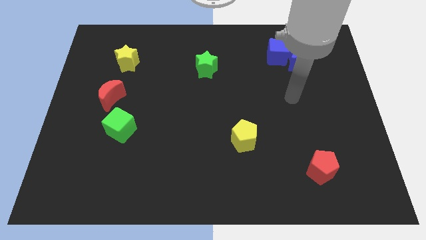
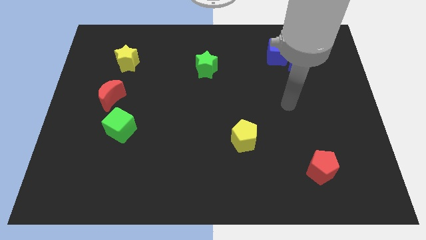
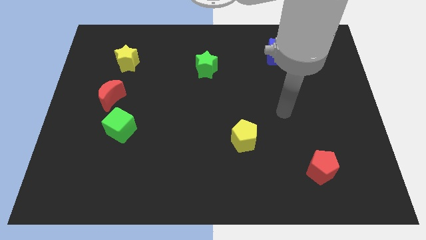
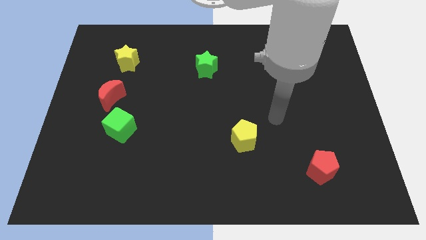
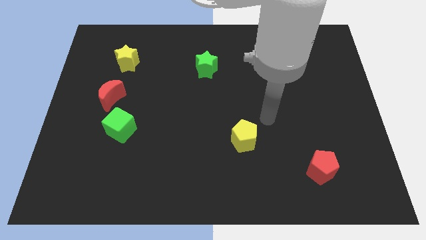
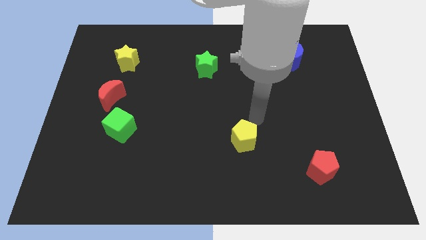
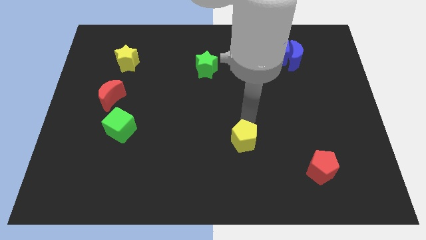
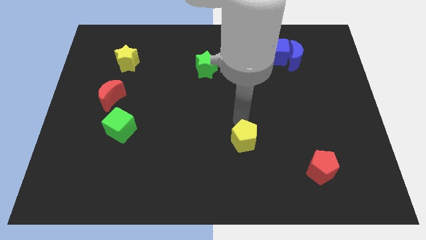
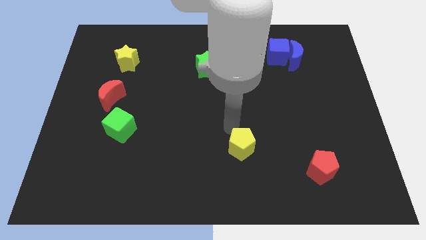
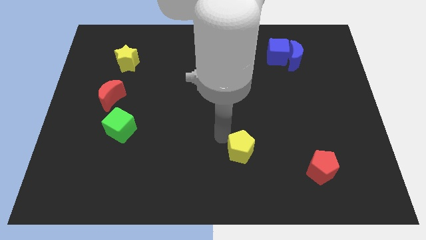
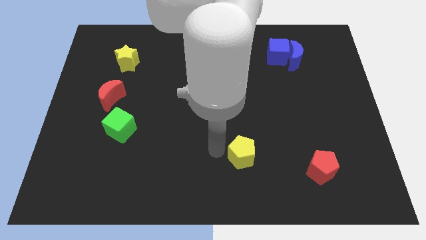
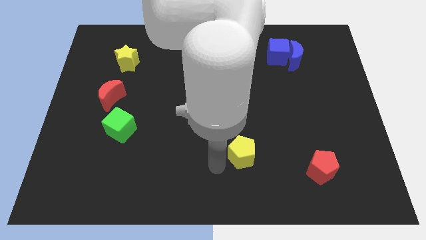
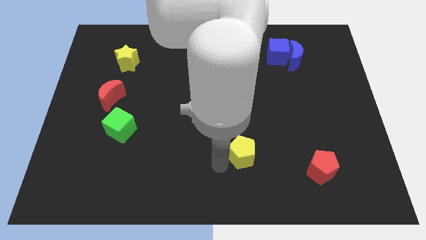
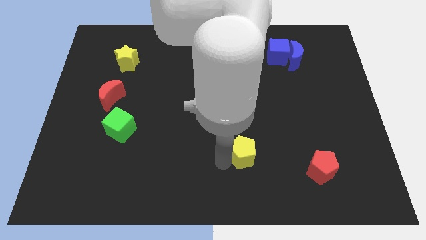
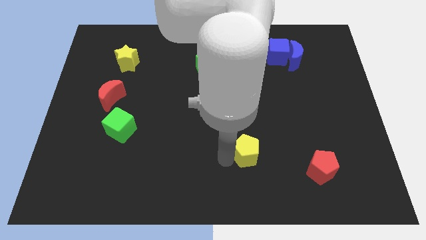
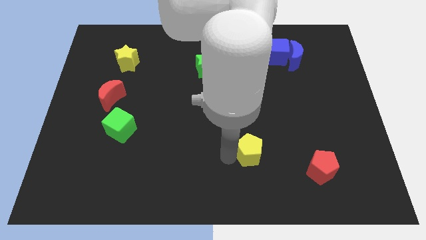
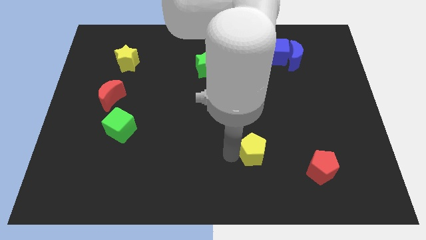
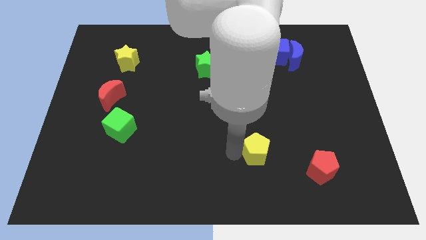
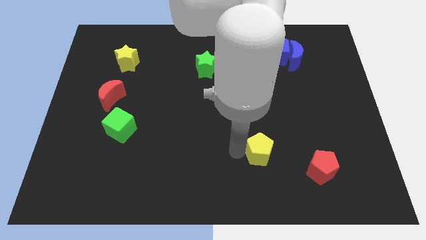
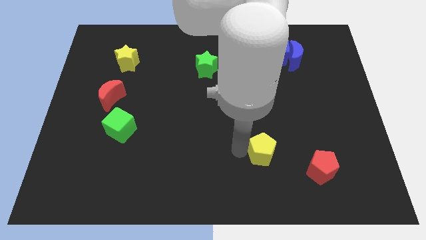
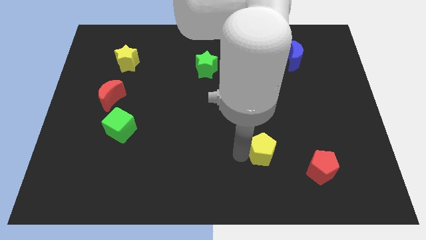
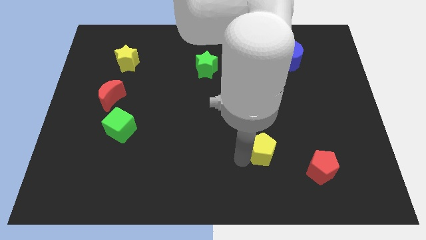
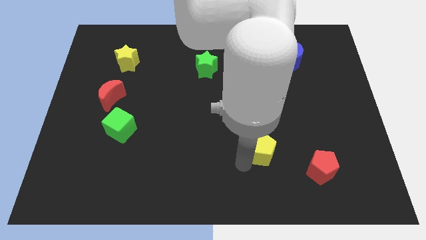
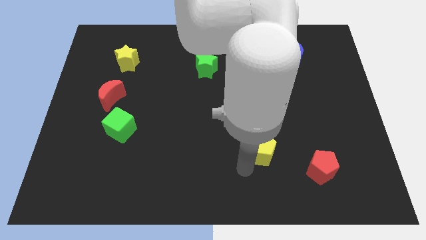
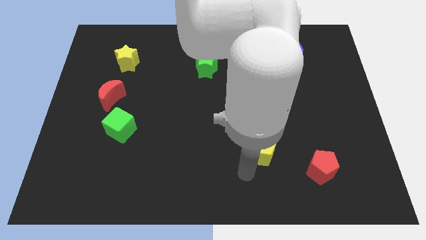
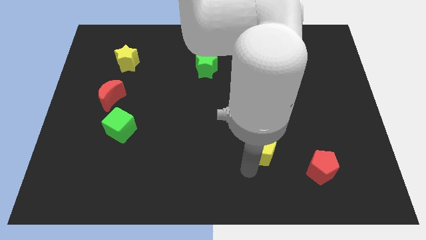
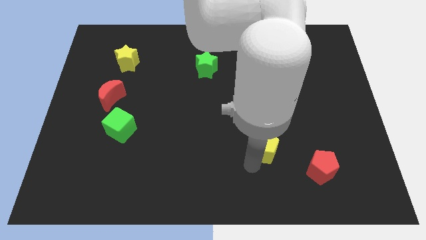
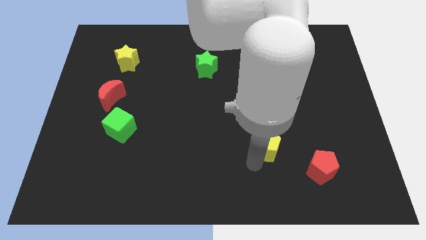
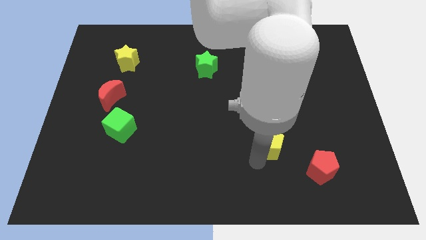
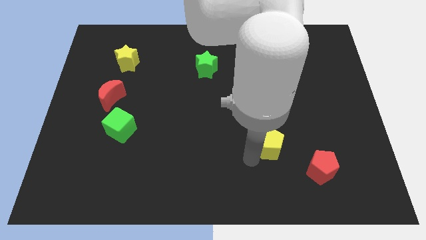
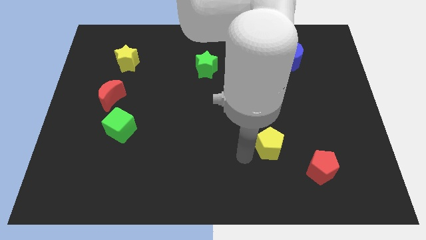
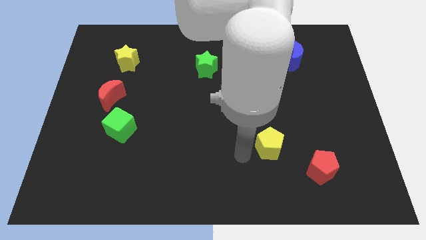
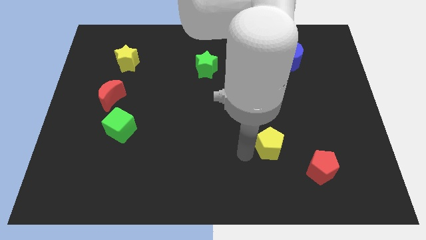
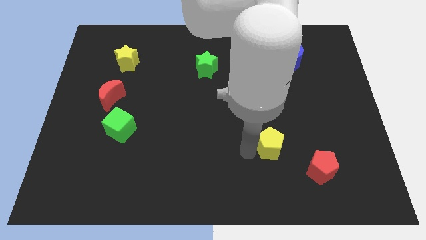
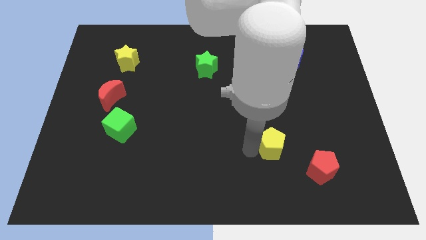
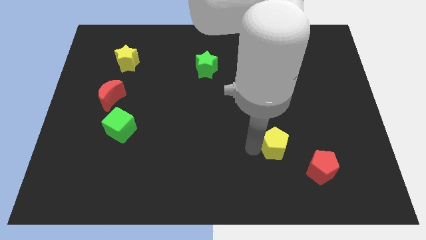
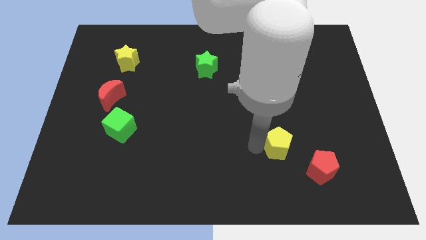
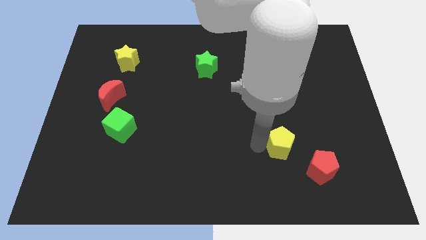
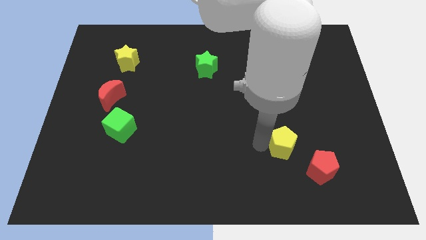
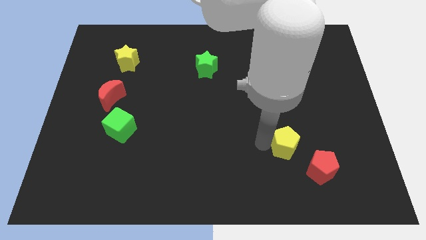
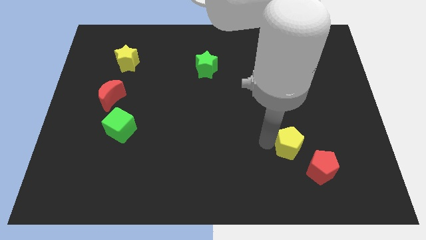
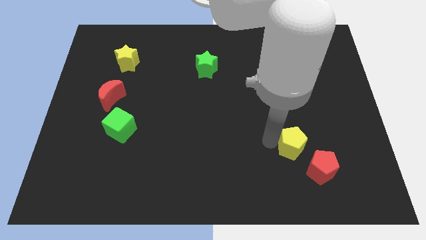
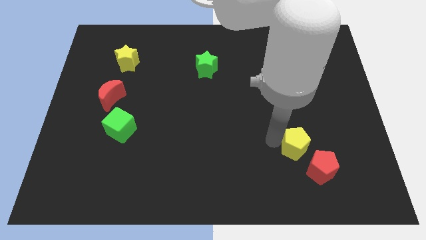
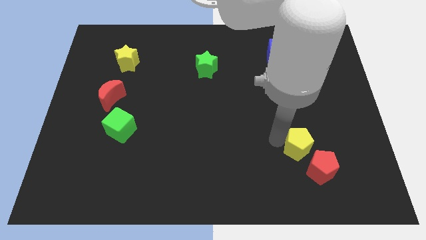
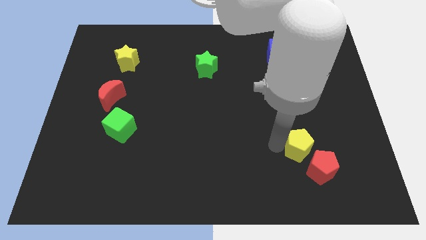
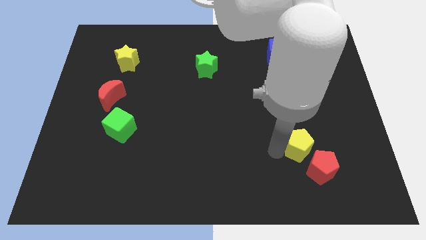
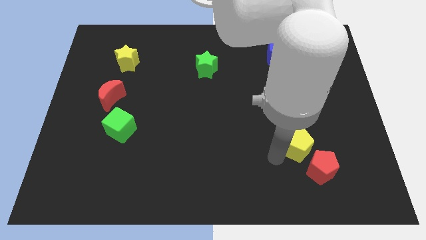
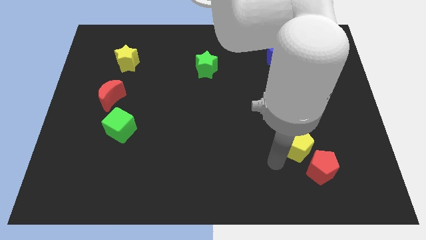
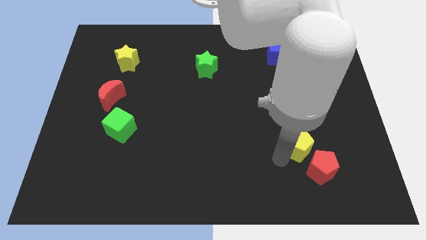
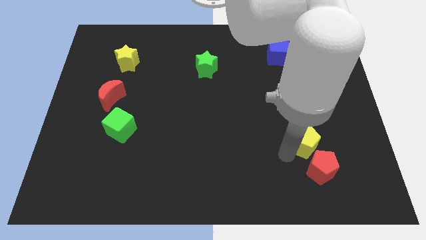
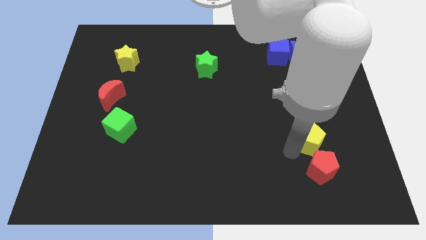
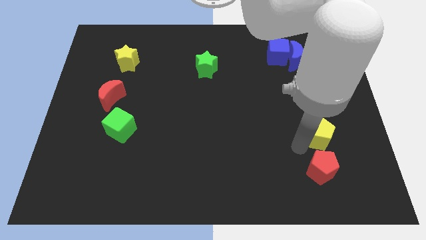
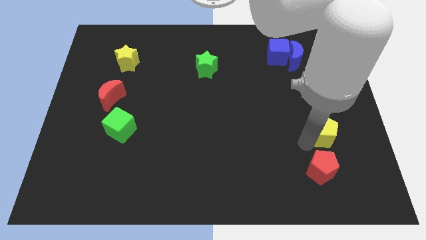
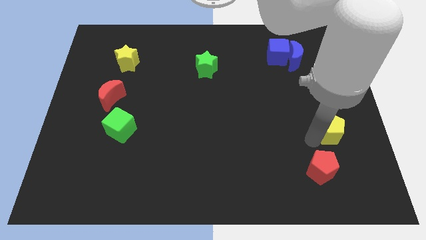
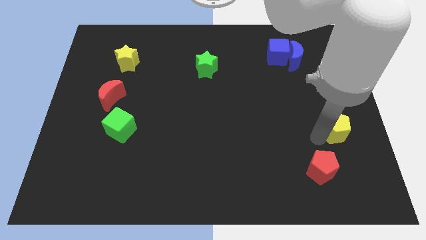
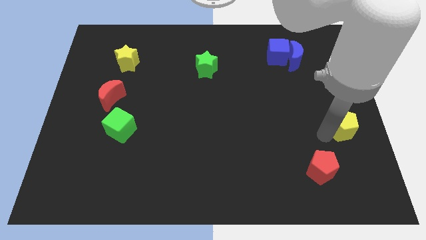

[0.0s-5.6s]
slide the yellow pentagon to the right side of the board
